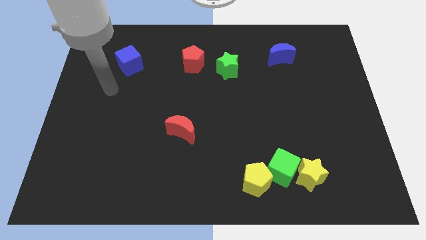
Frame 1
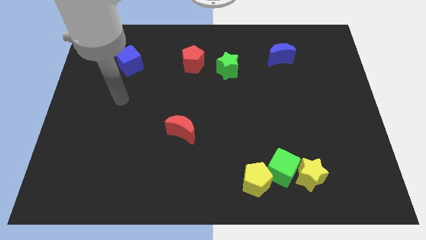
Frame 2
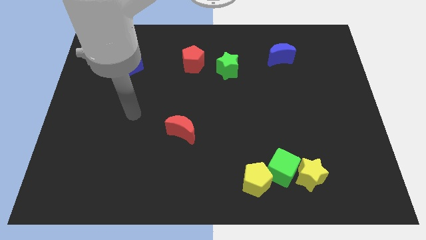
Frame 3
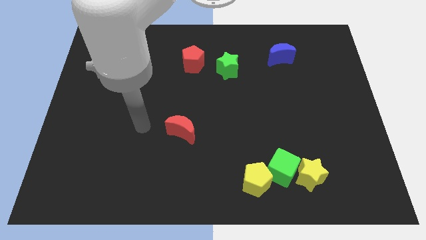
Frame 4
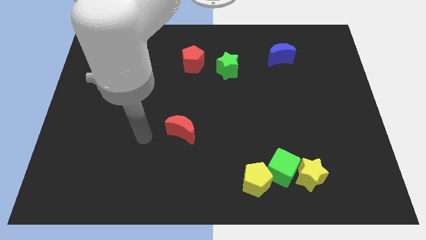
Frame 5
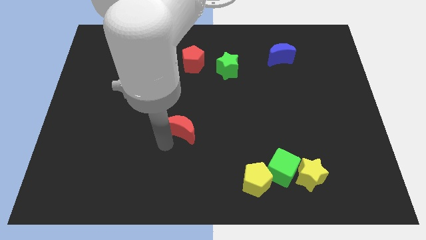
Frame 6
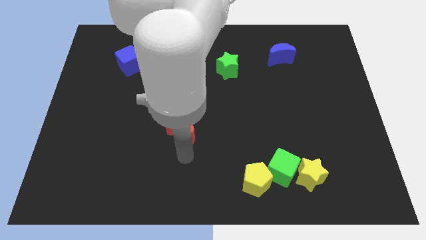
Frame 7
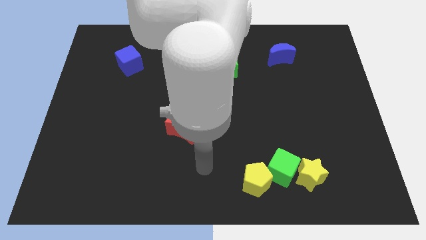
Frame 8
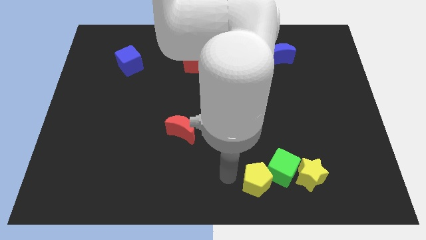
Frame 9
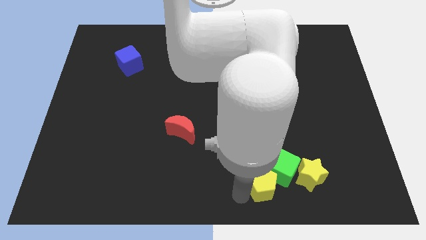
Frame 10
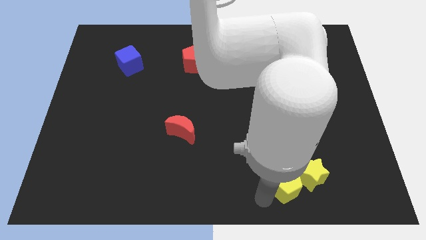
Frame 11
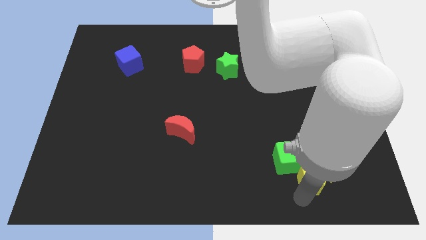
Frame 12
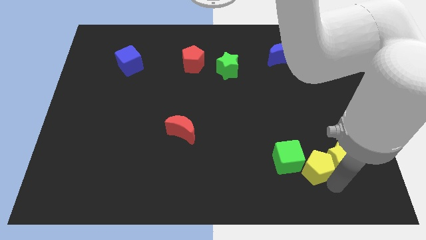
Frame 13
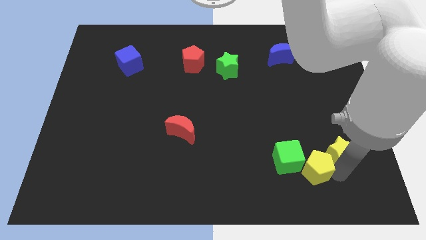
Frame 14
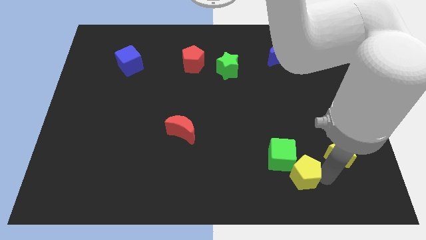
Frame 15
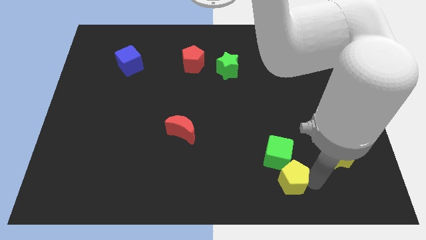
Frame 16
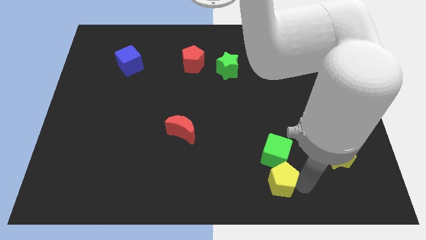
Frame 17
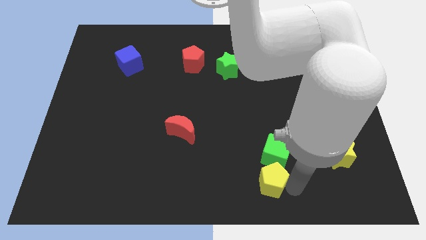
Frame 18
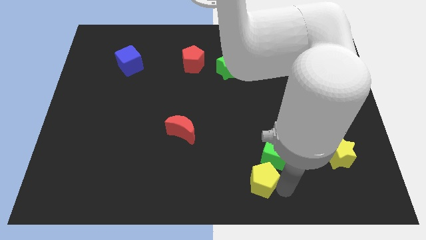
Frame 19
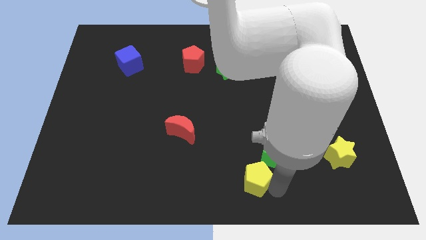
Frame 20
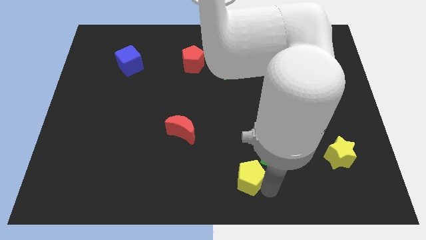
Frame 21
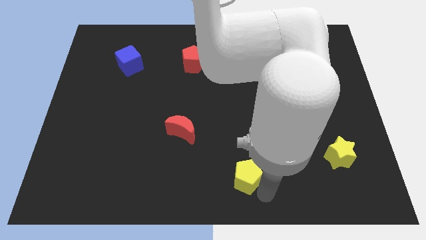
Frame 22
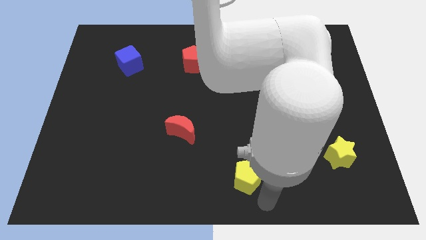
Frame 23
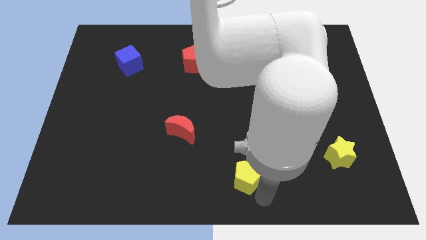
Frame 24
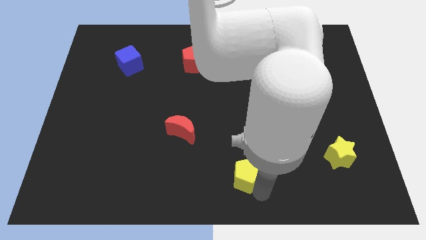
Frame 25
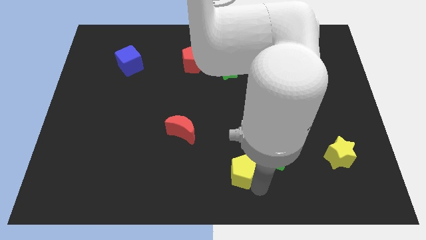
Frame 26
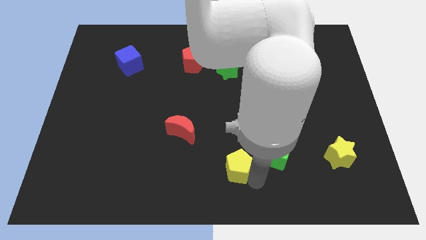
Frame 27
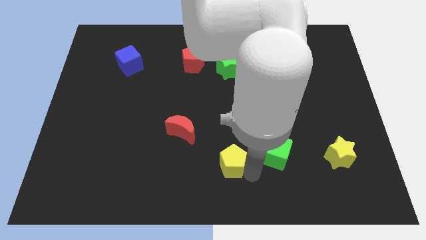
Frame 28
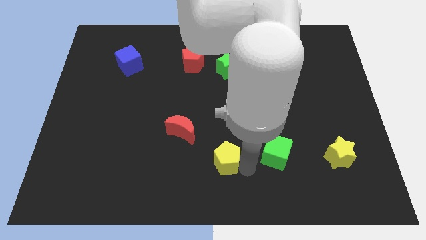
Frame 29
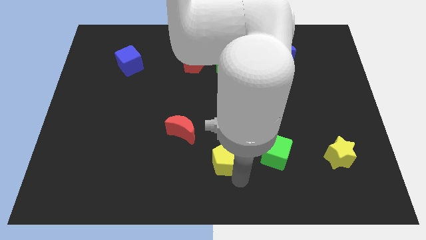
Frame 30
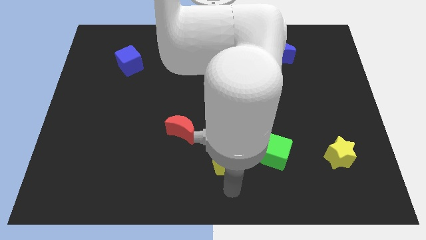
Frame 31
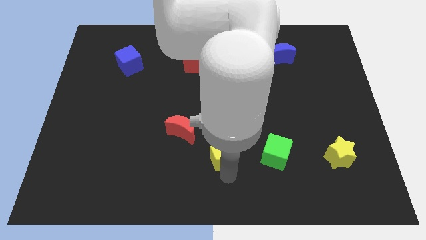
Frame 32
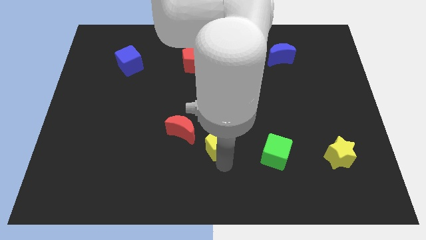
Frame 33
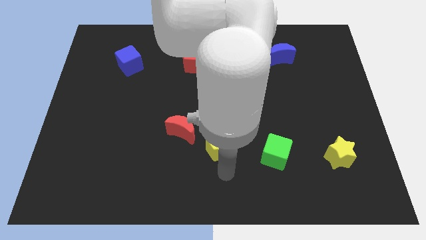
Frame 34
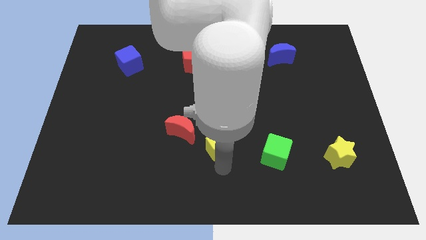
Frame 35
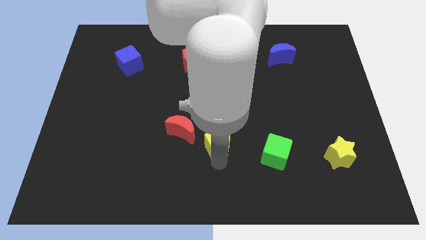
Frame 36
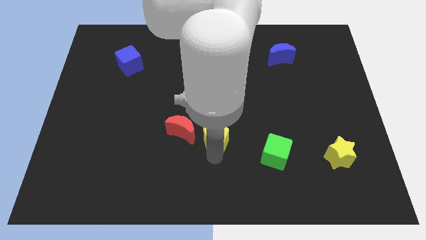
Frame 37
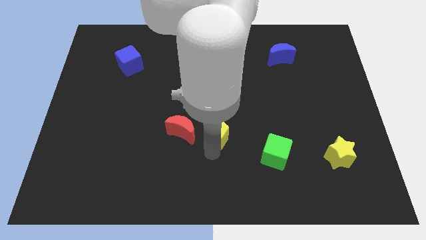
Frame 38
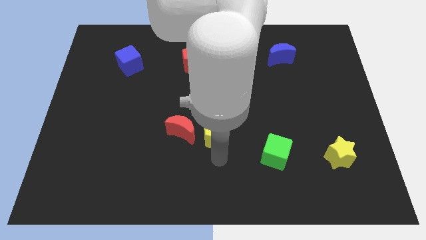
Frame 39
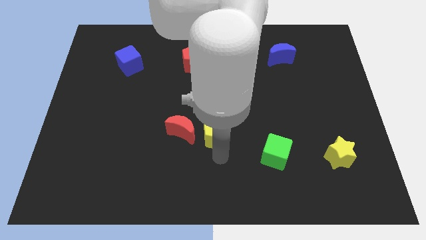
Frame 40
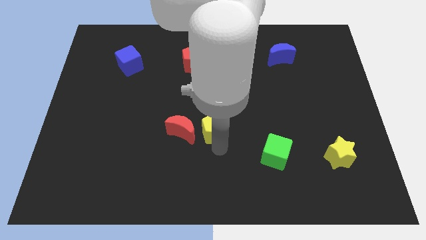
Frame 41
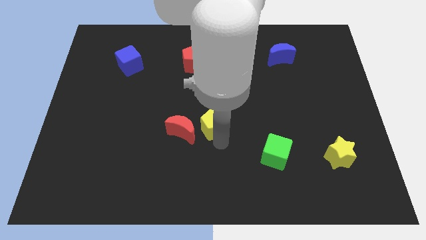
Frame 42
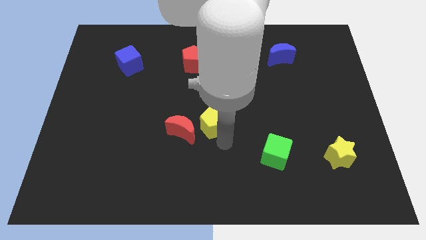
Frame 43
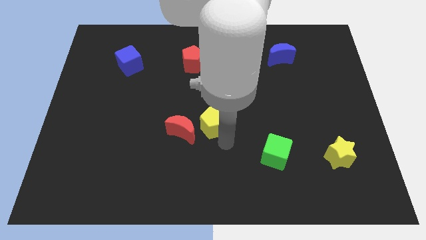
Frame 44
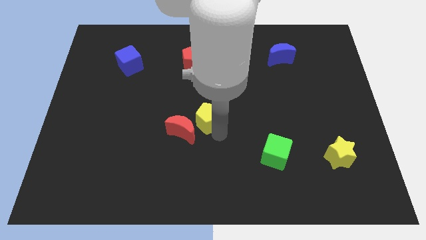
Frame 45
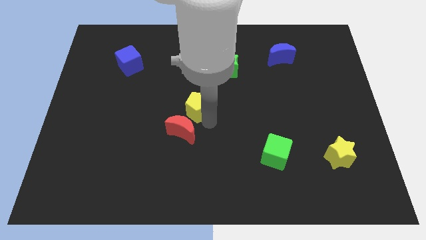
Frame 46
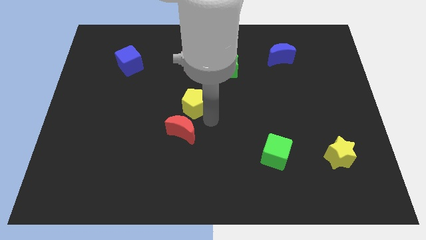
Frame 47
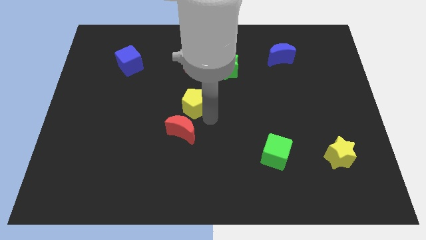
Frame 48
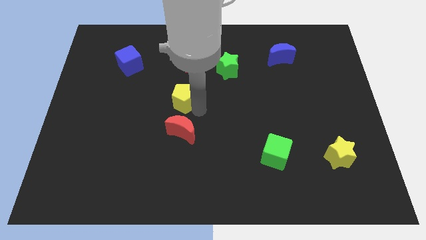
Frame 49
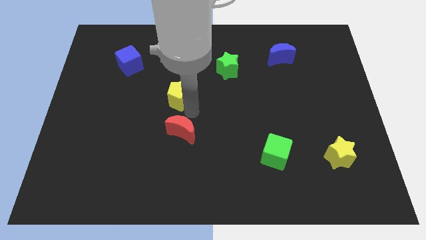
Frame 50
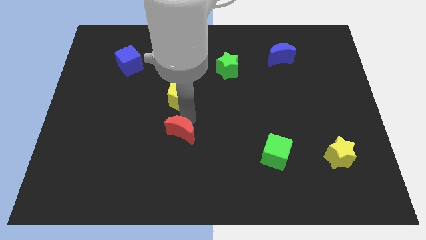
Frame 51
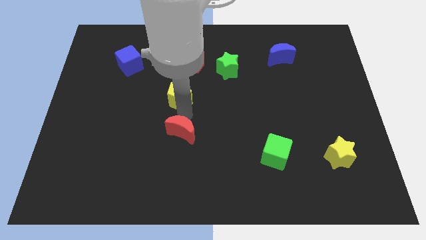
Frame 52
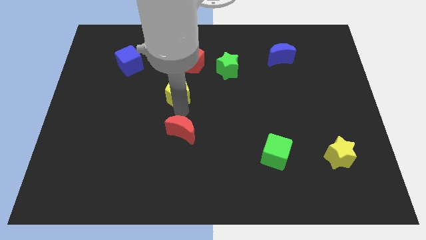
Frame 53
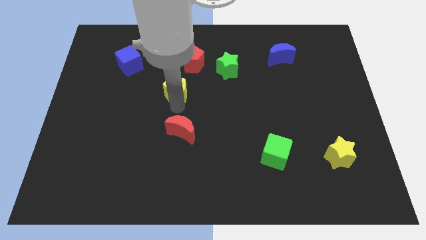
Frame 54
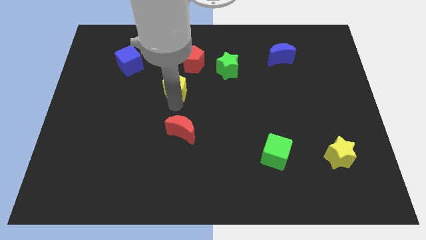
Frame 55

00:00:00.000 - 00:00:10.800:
move the yellow pentagon diagonally down and to the left of the red pentagon

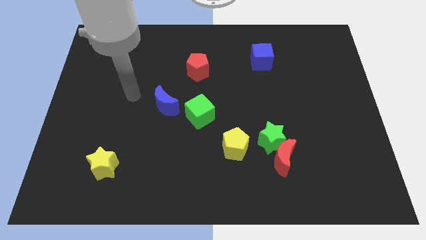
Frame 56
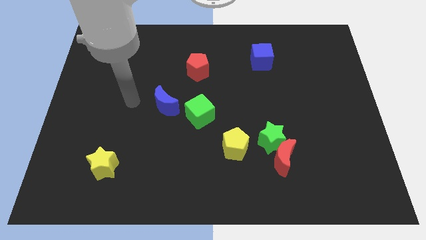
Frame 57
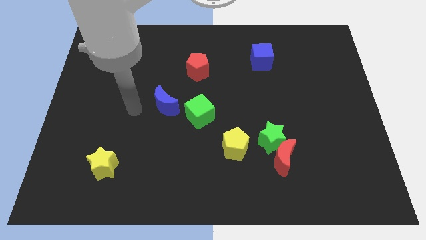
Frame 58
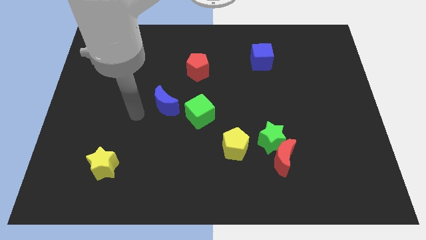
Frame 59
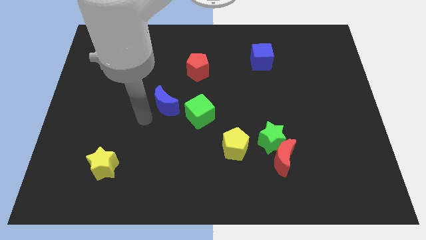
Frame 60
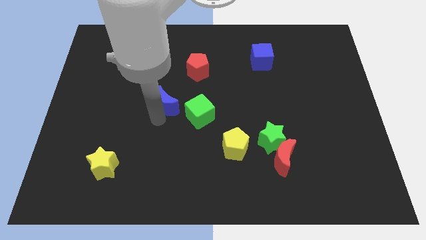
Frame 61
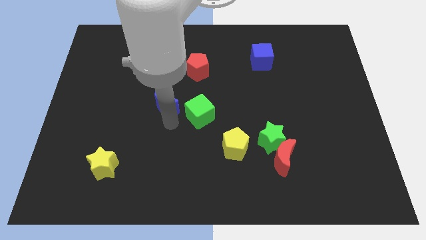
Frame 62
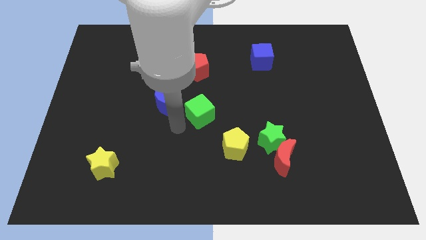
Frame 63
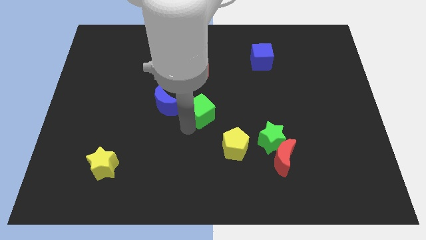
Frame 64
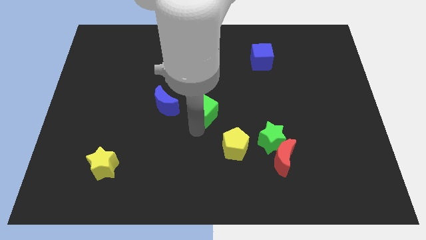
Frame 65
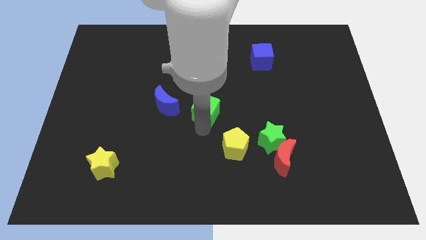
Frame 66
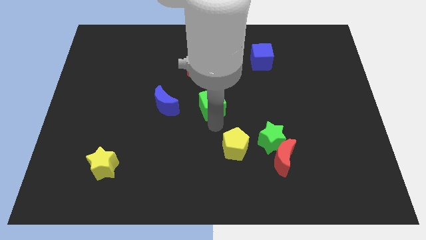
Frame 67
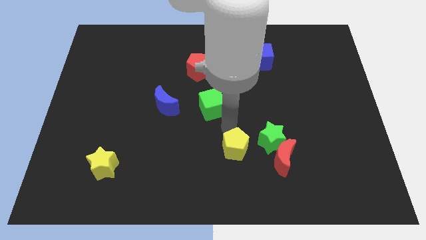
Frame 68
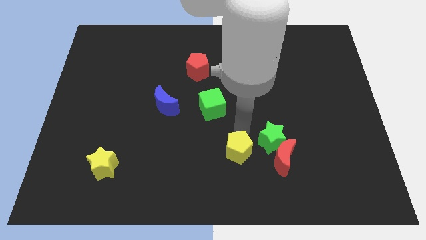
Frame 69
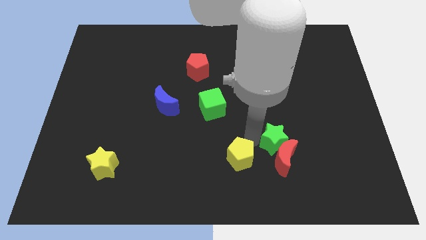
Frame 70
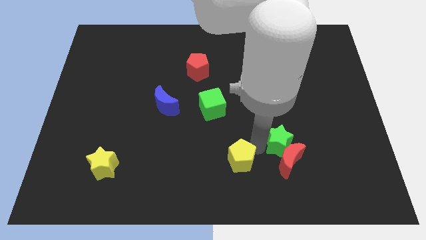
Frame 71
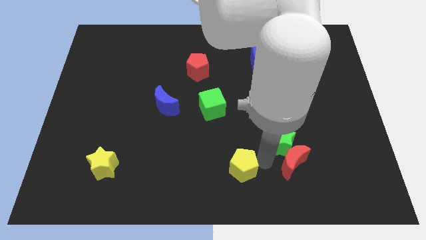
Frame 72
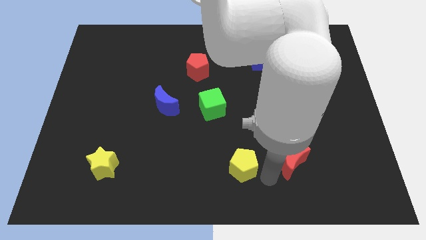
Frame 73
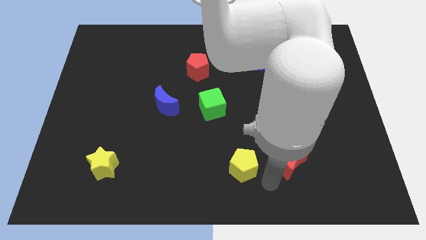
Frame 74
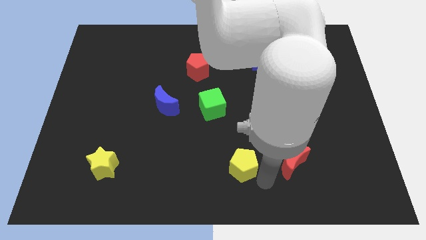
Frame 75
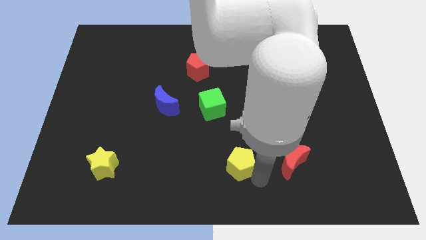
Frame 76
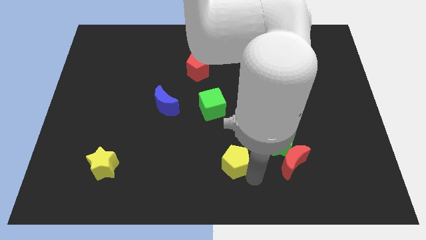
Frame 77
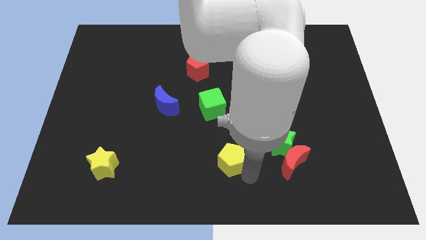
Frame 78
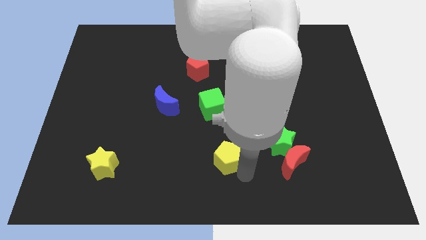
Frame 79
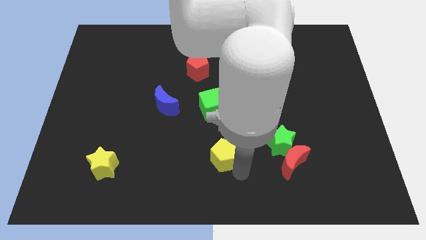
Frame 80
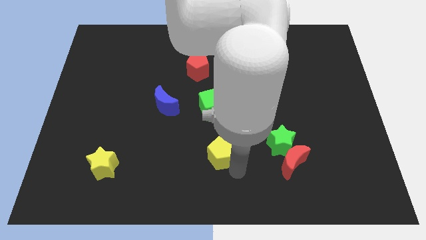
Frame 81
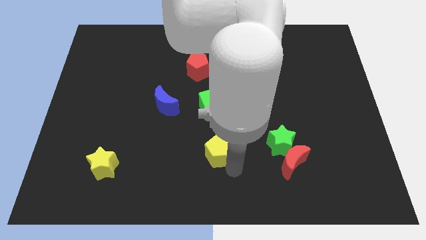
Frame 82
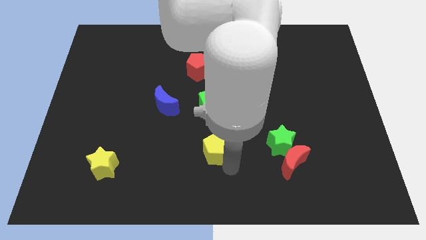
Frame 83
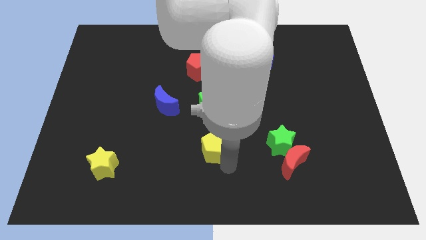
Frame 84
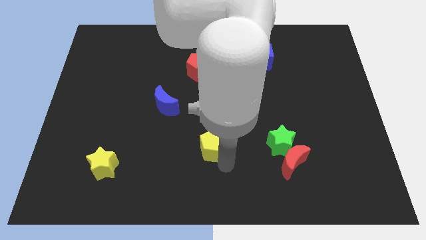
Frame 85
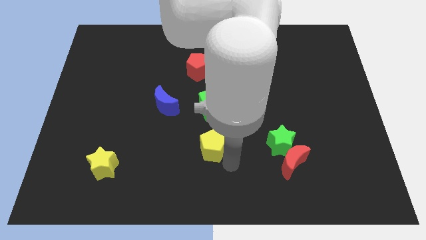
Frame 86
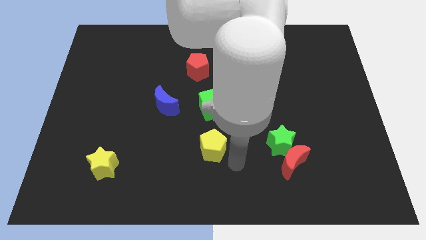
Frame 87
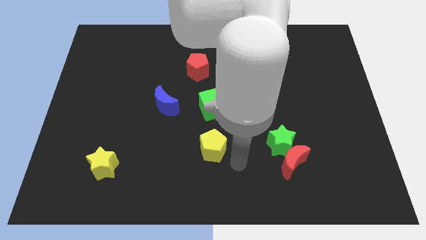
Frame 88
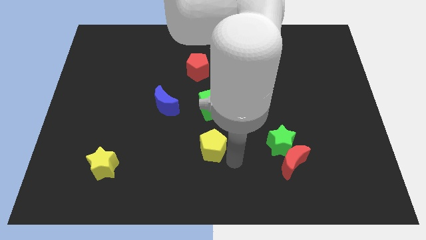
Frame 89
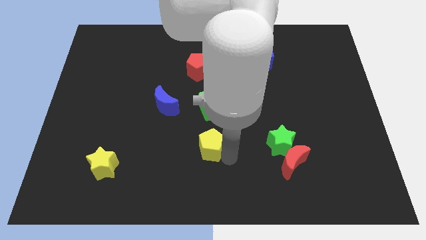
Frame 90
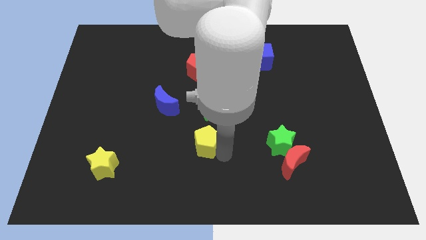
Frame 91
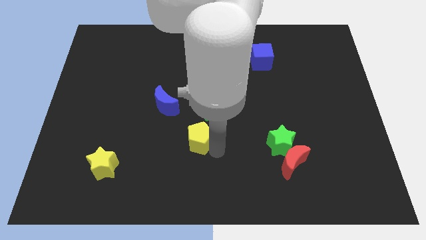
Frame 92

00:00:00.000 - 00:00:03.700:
move the yellow pentagon to the bottom left of the green cube
